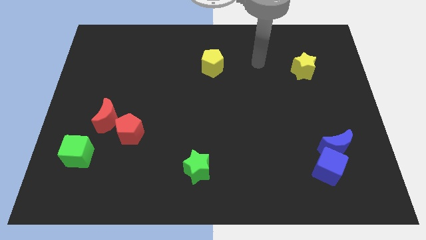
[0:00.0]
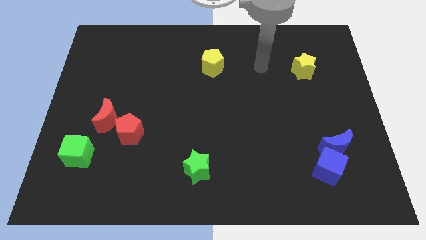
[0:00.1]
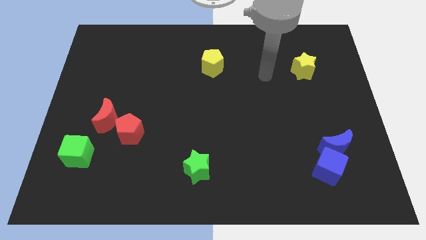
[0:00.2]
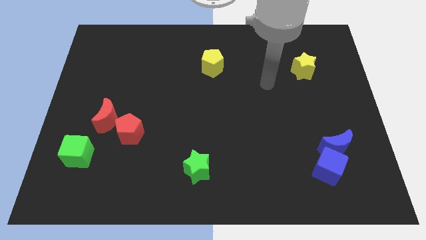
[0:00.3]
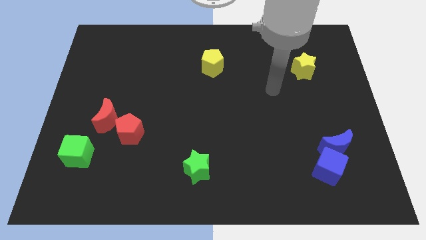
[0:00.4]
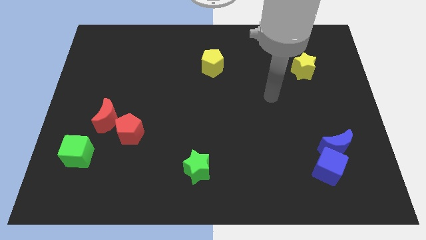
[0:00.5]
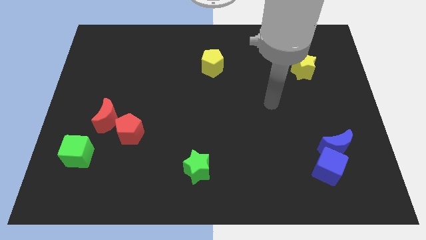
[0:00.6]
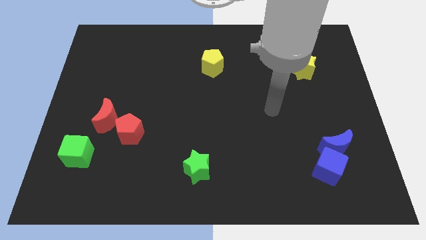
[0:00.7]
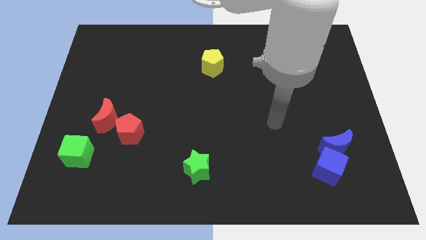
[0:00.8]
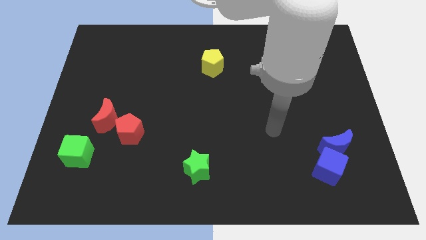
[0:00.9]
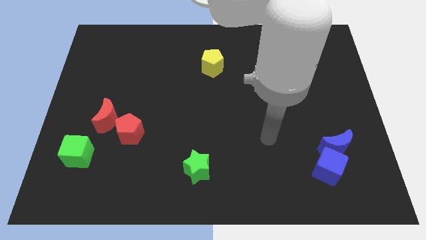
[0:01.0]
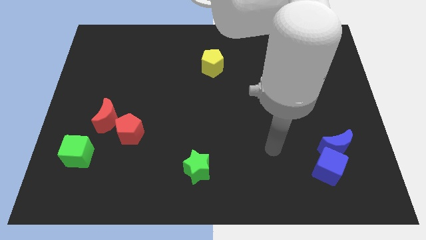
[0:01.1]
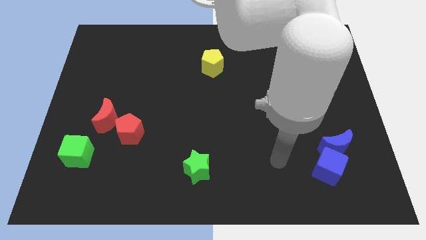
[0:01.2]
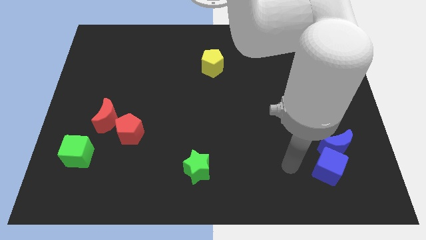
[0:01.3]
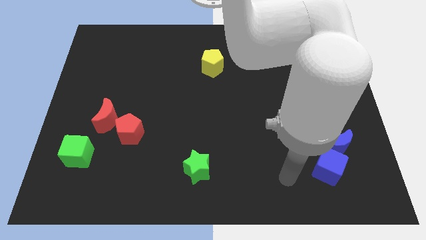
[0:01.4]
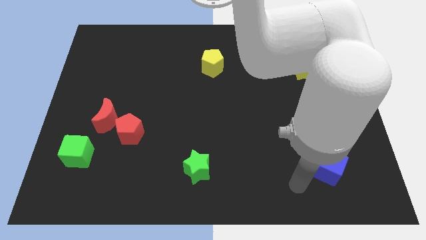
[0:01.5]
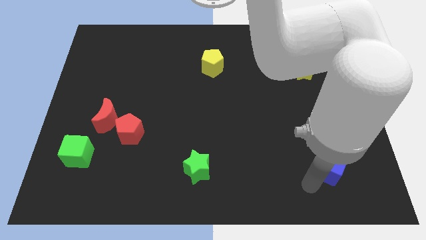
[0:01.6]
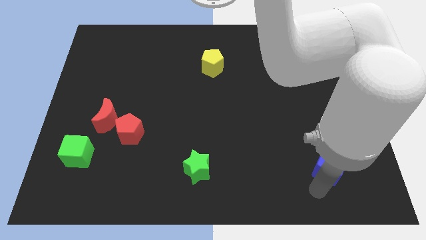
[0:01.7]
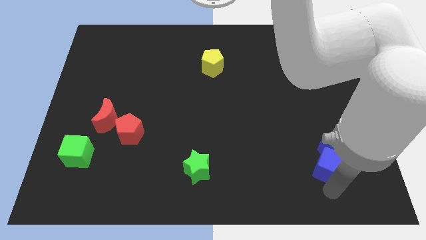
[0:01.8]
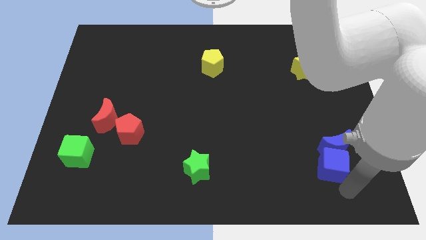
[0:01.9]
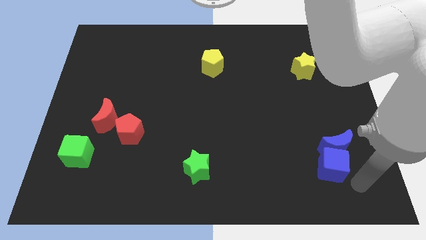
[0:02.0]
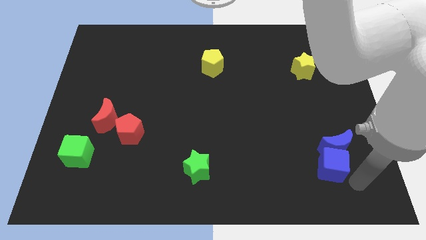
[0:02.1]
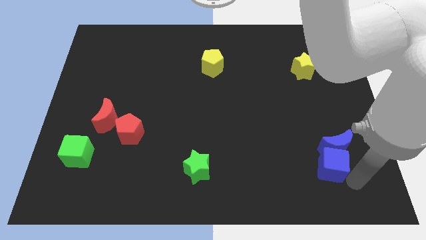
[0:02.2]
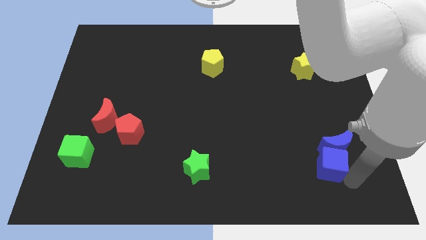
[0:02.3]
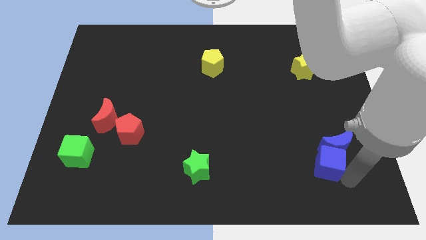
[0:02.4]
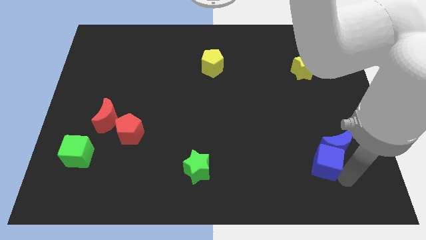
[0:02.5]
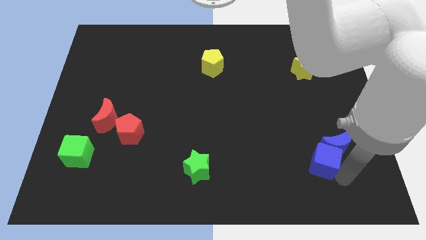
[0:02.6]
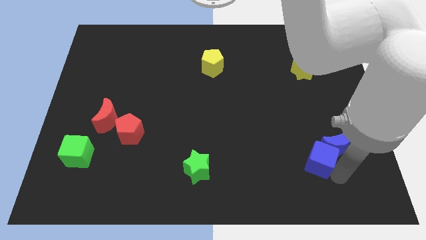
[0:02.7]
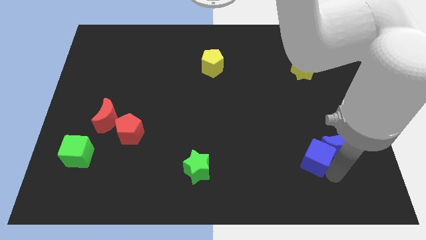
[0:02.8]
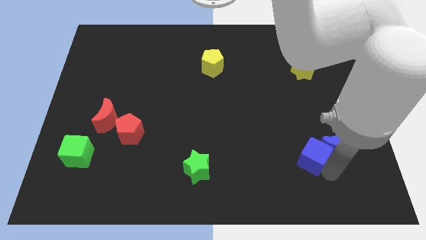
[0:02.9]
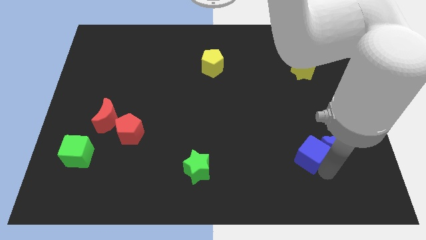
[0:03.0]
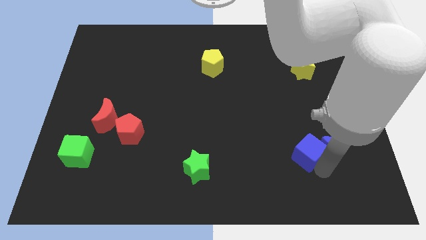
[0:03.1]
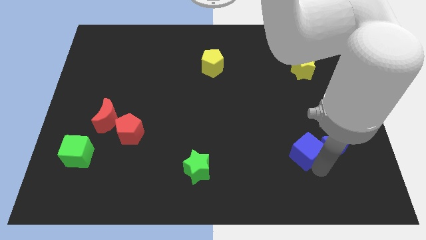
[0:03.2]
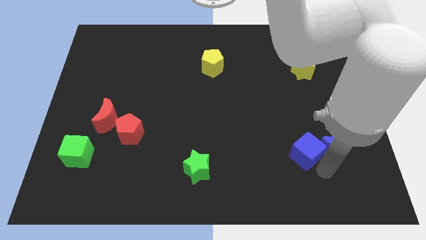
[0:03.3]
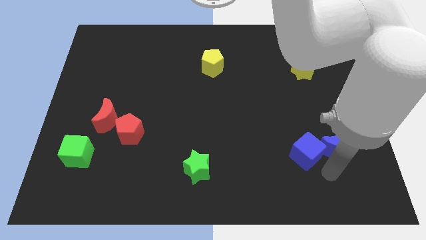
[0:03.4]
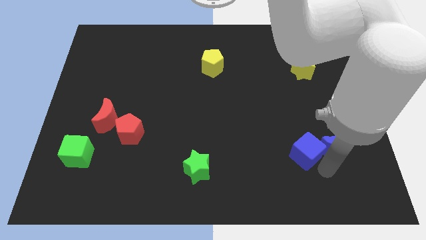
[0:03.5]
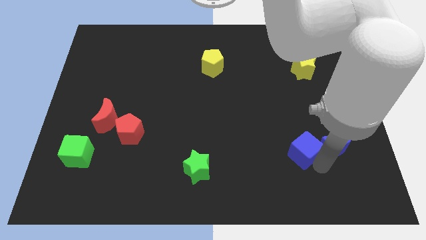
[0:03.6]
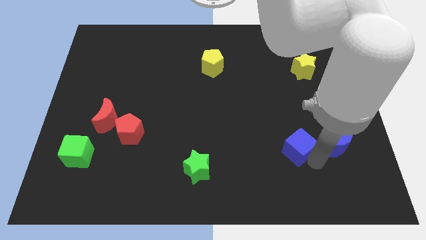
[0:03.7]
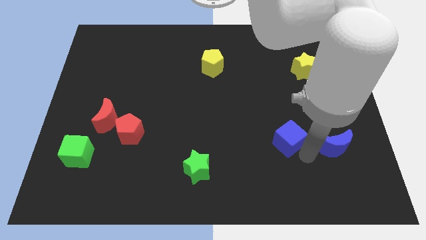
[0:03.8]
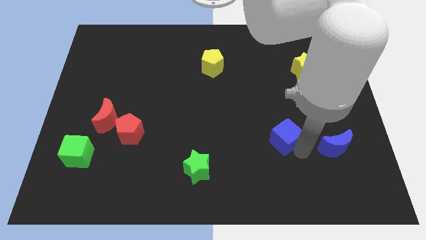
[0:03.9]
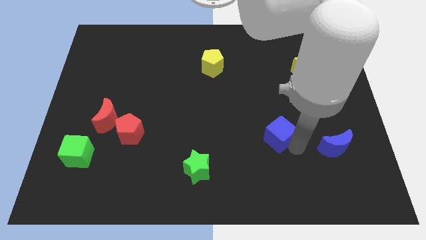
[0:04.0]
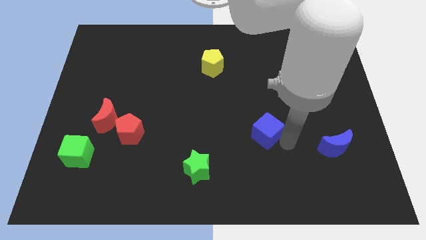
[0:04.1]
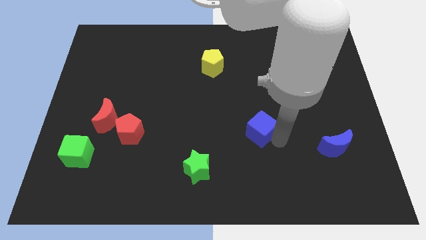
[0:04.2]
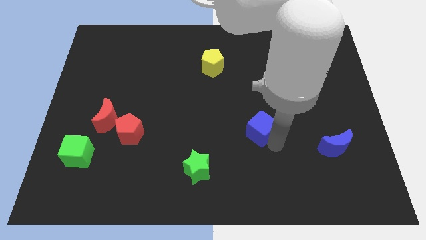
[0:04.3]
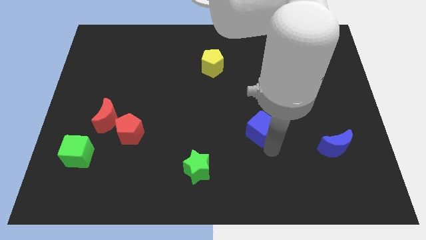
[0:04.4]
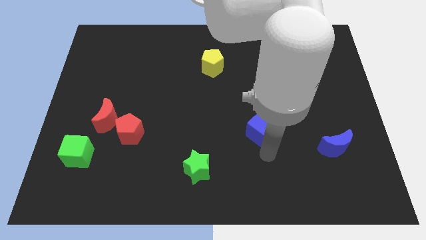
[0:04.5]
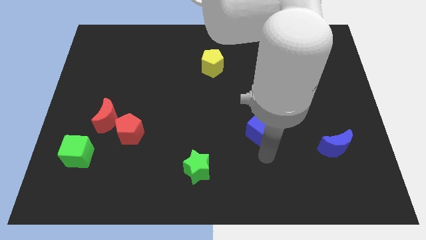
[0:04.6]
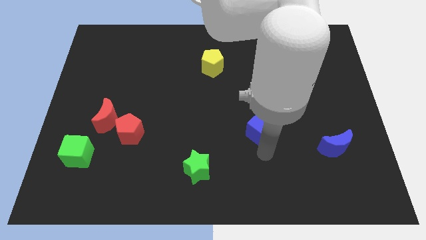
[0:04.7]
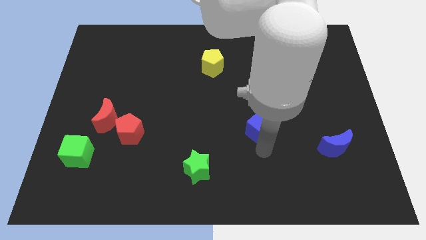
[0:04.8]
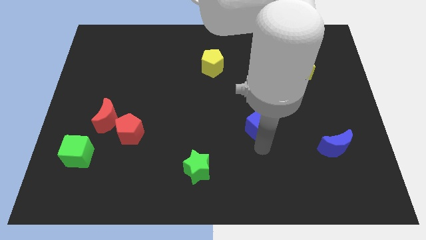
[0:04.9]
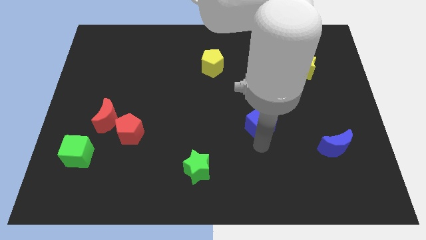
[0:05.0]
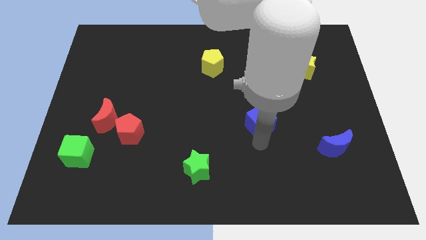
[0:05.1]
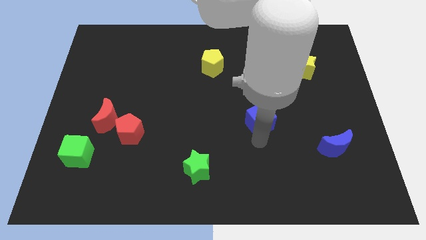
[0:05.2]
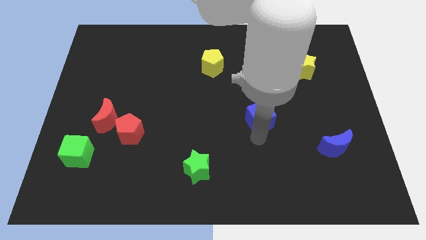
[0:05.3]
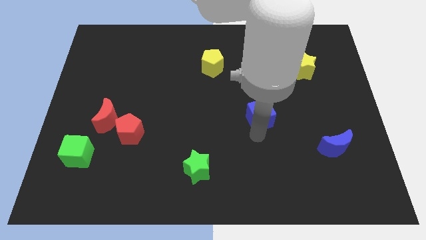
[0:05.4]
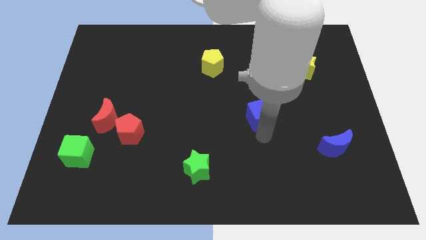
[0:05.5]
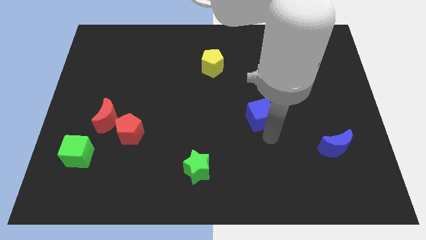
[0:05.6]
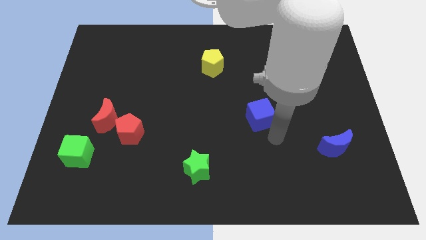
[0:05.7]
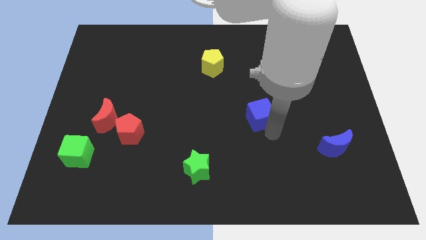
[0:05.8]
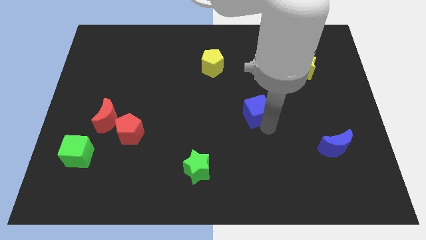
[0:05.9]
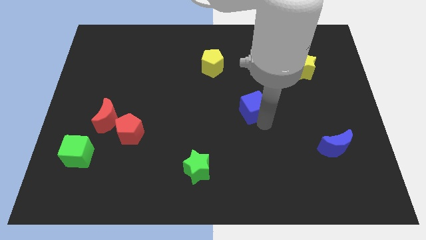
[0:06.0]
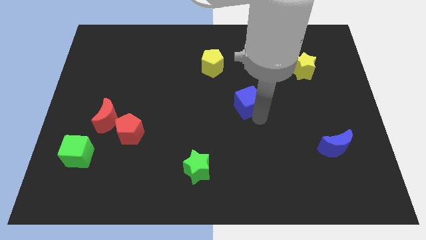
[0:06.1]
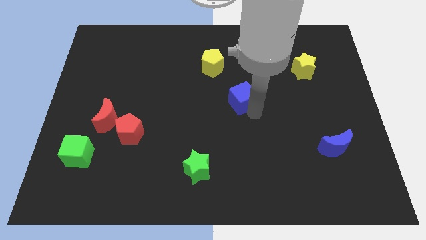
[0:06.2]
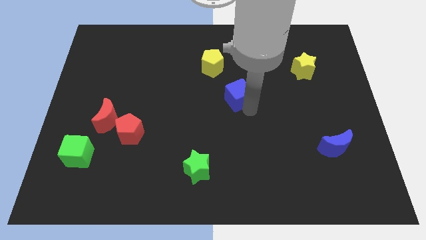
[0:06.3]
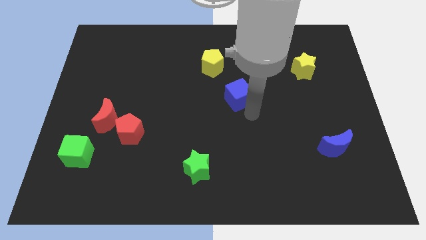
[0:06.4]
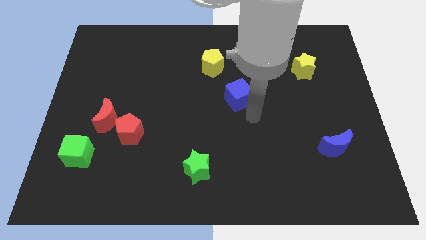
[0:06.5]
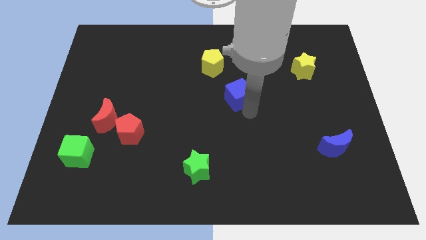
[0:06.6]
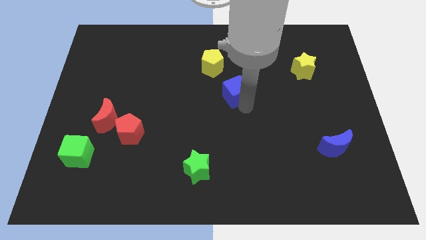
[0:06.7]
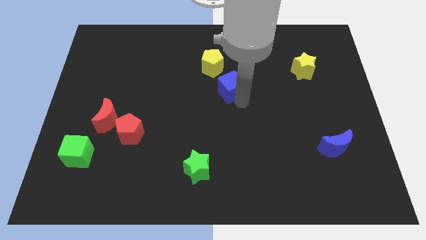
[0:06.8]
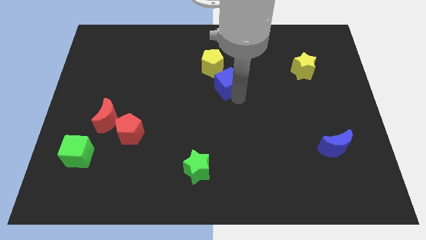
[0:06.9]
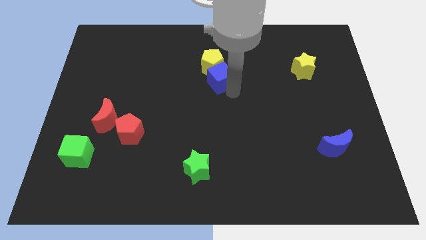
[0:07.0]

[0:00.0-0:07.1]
slide the blue cube next to the yellow pentagon
